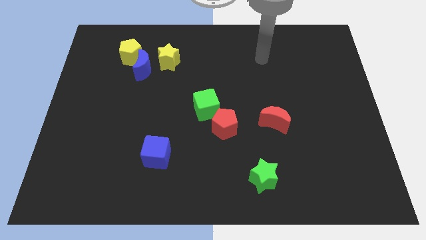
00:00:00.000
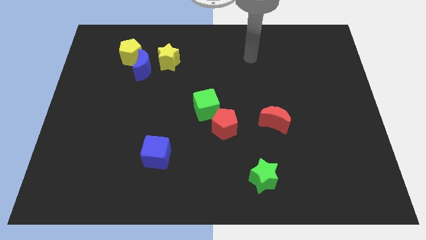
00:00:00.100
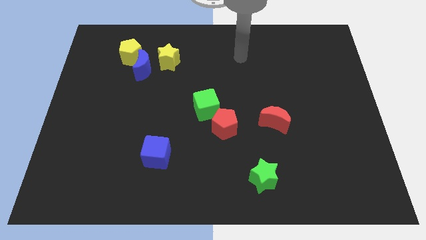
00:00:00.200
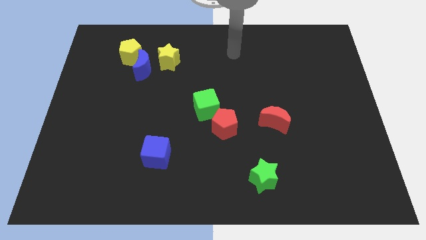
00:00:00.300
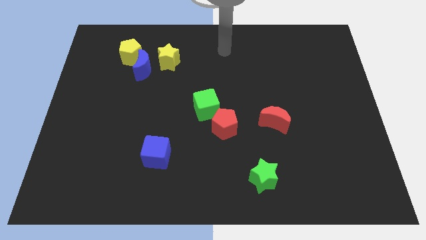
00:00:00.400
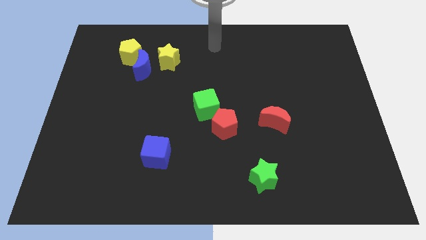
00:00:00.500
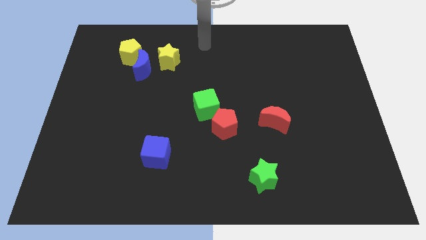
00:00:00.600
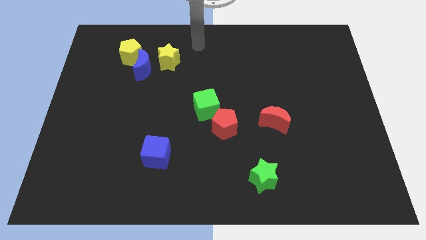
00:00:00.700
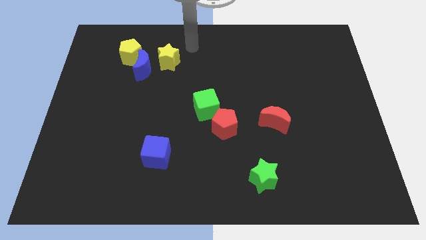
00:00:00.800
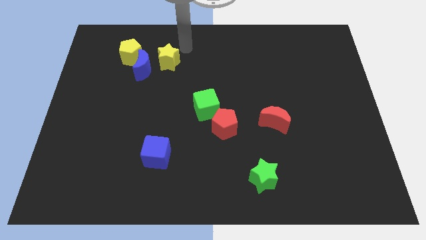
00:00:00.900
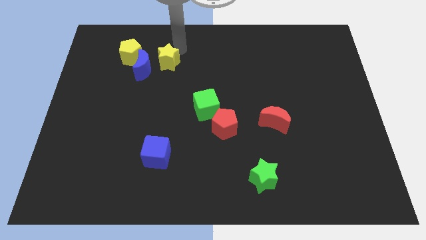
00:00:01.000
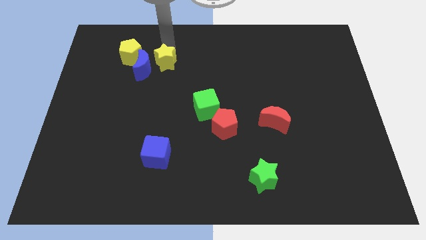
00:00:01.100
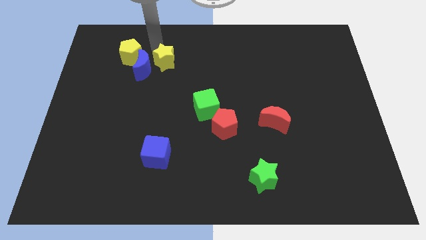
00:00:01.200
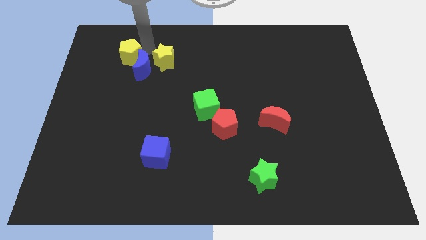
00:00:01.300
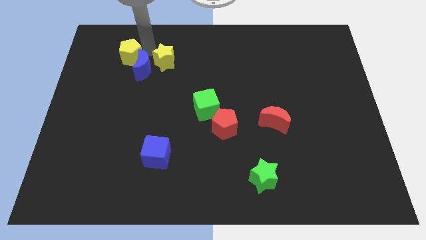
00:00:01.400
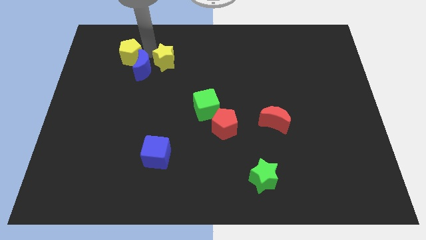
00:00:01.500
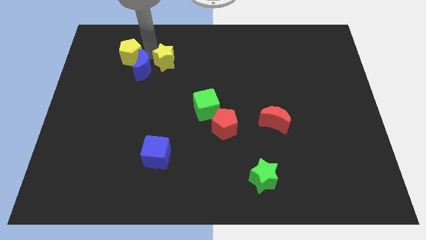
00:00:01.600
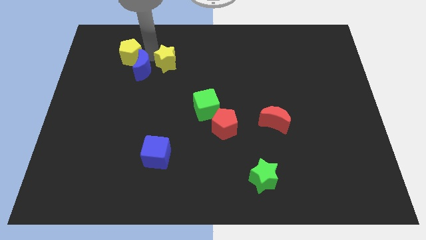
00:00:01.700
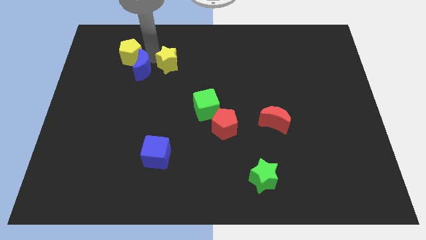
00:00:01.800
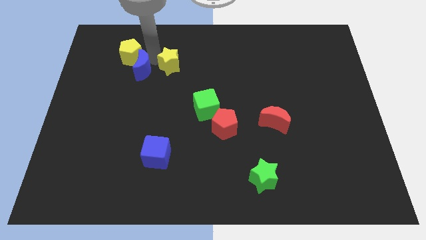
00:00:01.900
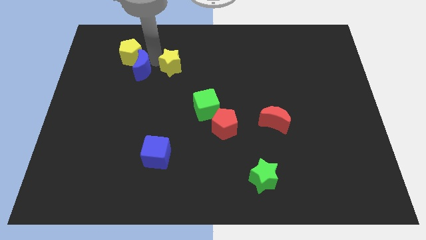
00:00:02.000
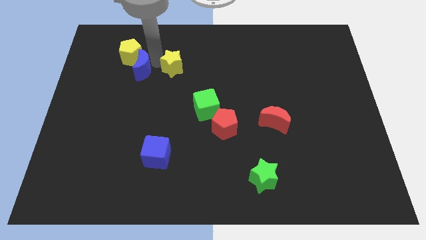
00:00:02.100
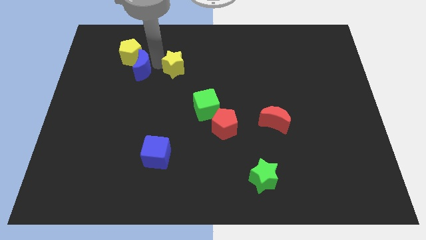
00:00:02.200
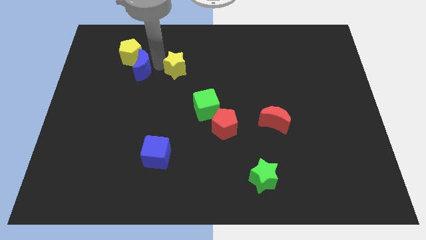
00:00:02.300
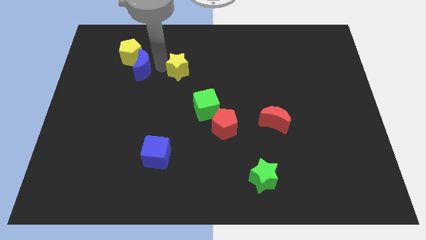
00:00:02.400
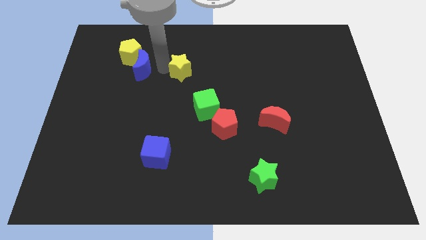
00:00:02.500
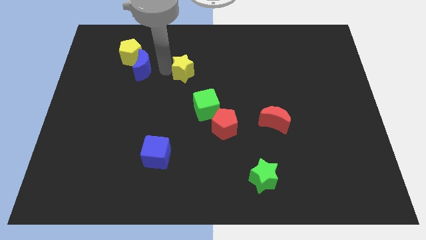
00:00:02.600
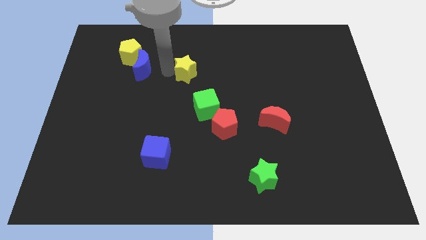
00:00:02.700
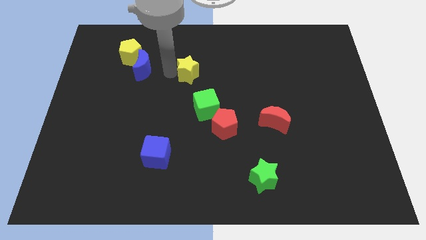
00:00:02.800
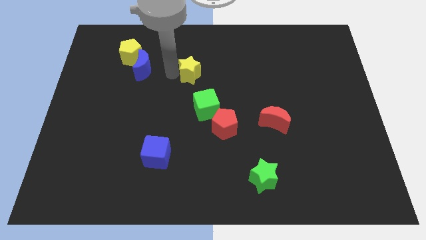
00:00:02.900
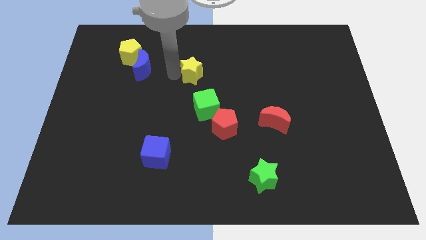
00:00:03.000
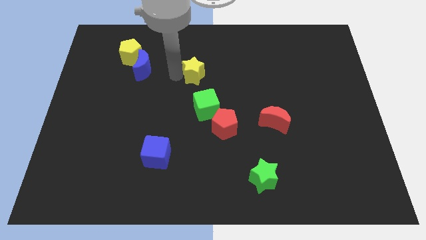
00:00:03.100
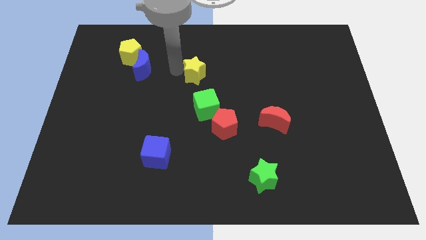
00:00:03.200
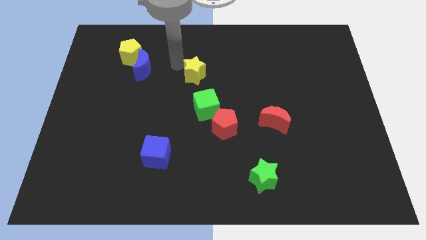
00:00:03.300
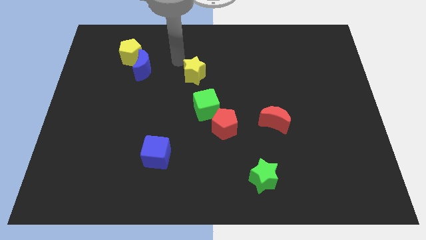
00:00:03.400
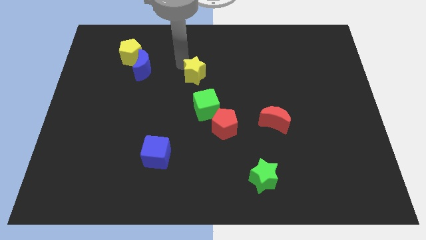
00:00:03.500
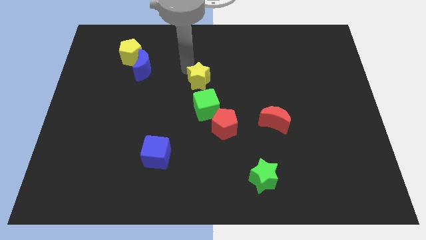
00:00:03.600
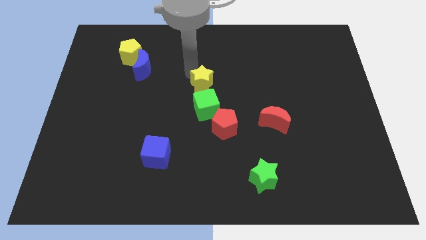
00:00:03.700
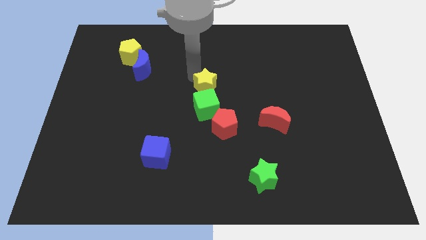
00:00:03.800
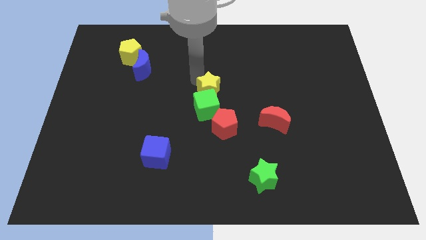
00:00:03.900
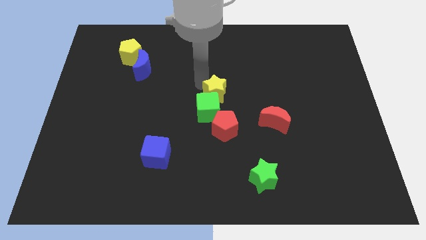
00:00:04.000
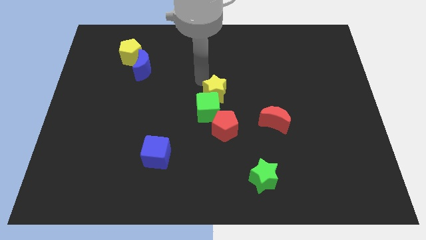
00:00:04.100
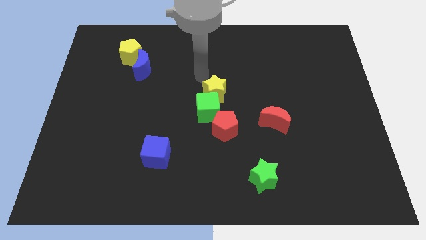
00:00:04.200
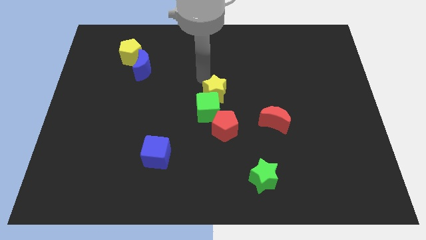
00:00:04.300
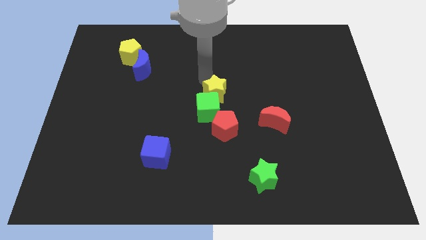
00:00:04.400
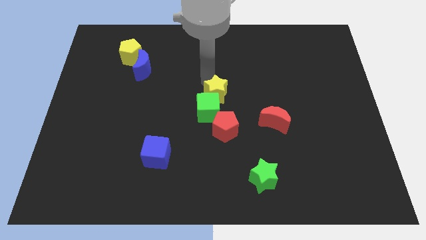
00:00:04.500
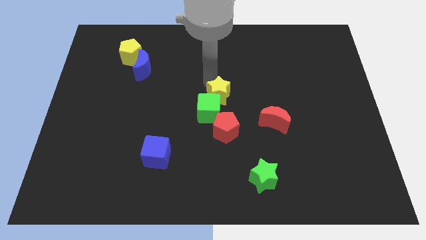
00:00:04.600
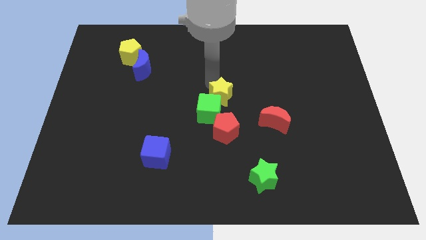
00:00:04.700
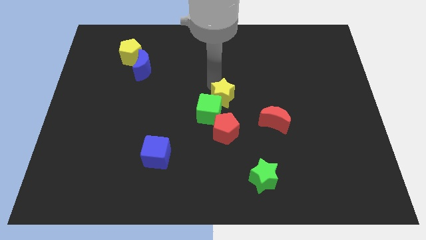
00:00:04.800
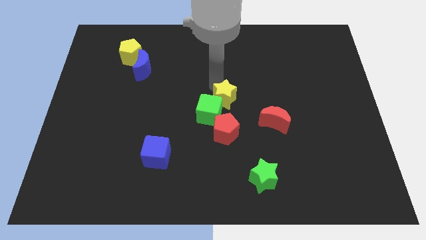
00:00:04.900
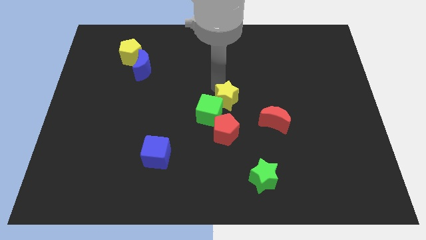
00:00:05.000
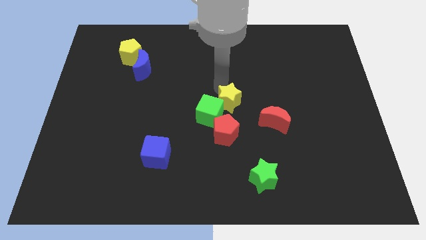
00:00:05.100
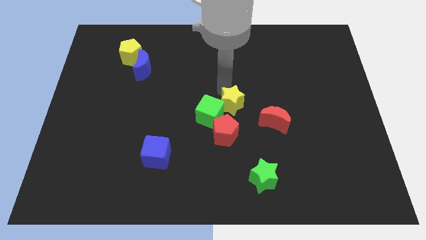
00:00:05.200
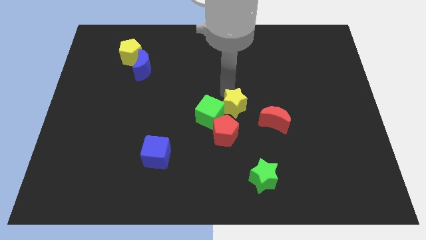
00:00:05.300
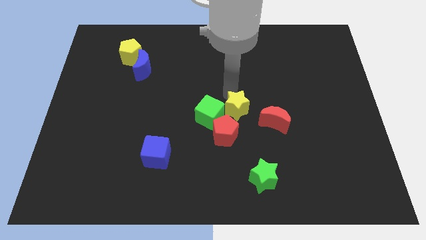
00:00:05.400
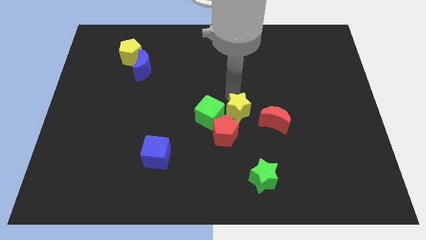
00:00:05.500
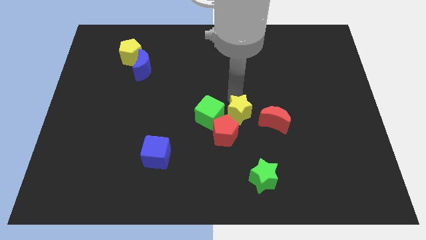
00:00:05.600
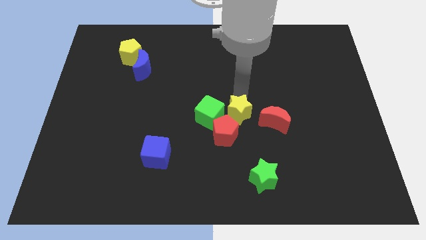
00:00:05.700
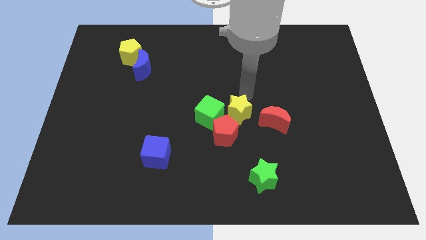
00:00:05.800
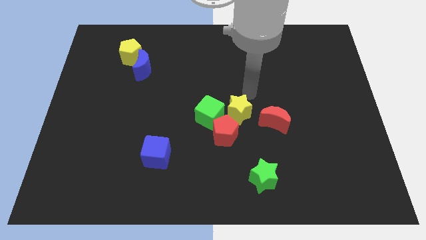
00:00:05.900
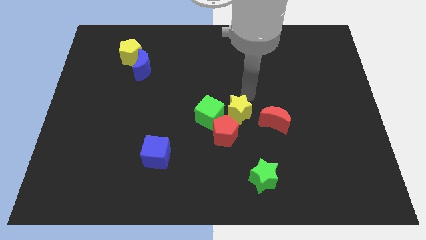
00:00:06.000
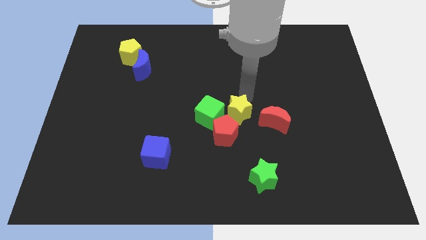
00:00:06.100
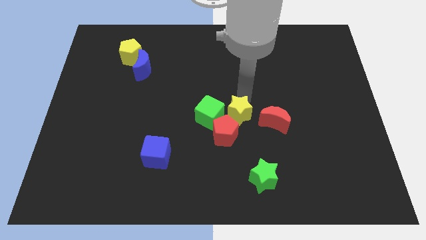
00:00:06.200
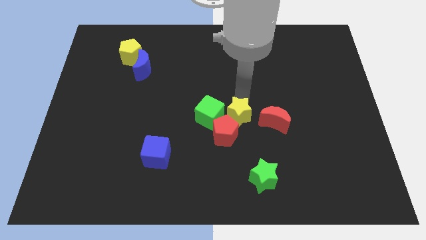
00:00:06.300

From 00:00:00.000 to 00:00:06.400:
put the yellow star towards the red pentagon

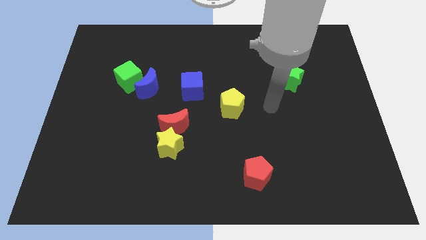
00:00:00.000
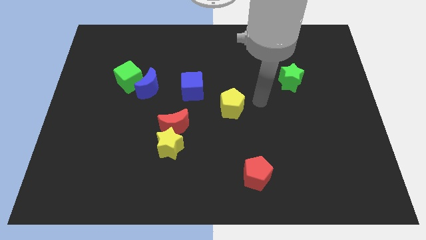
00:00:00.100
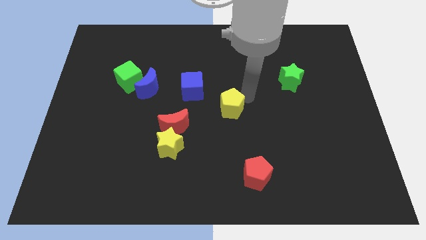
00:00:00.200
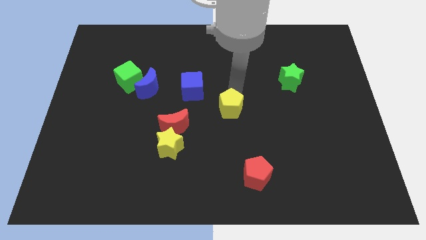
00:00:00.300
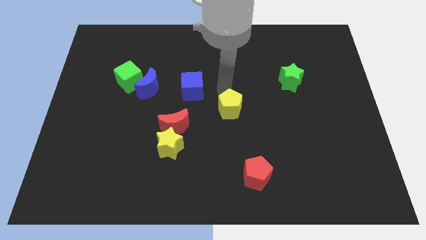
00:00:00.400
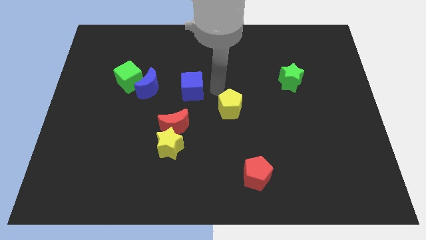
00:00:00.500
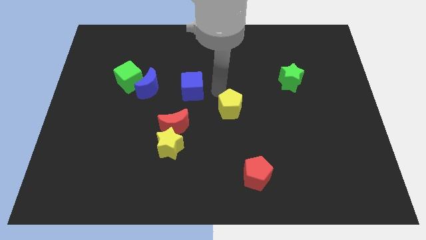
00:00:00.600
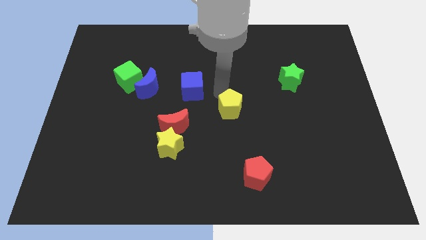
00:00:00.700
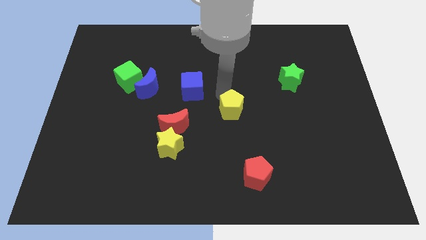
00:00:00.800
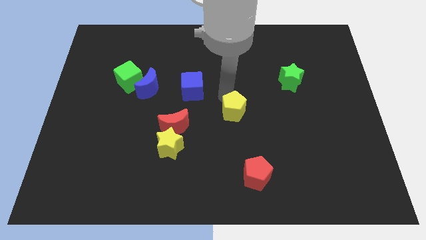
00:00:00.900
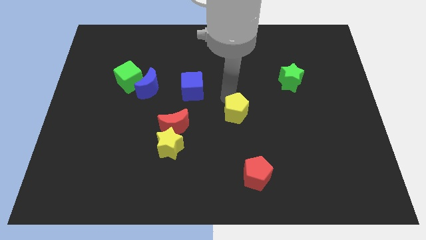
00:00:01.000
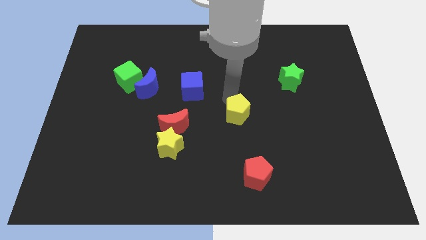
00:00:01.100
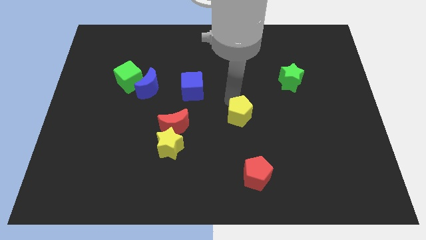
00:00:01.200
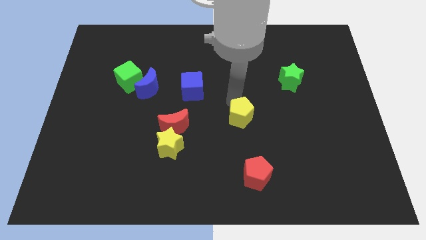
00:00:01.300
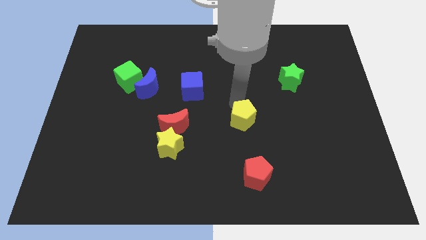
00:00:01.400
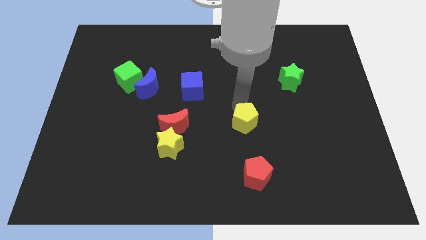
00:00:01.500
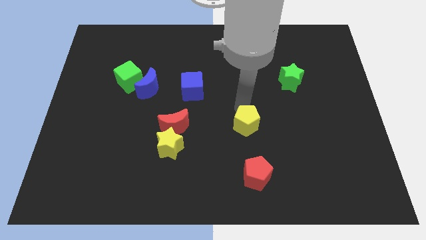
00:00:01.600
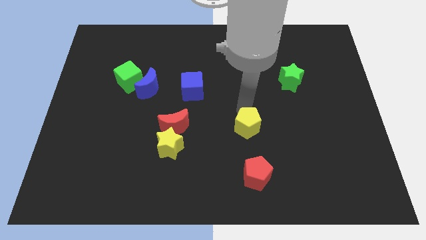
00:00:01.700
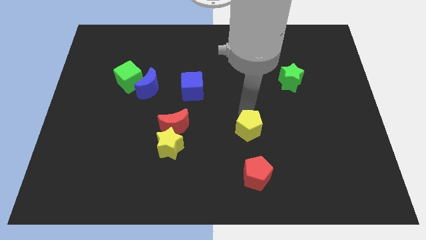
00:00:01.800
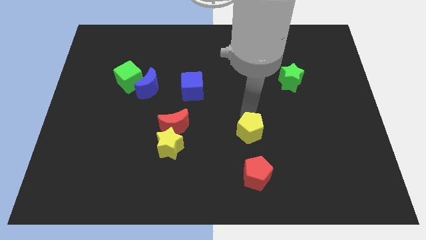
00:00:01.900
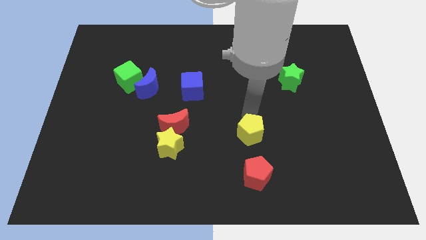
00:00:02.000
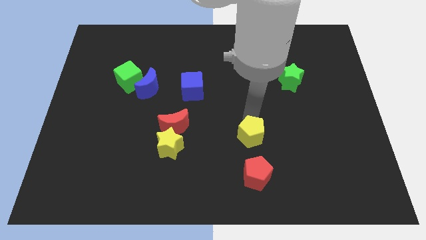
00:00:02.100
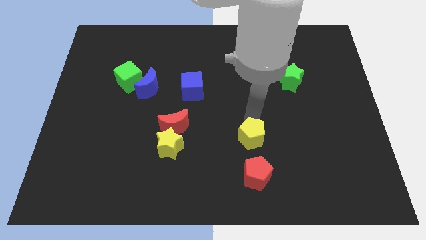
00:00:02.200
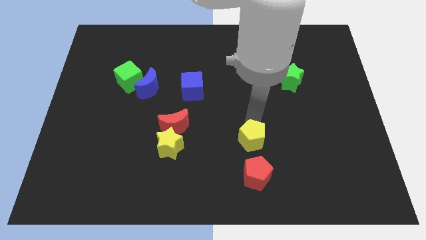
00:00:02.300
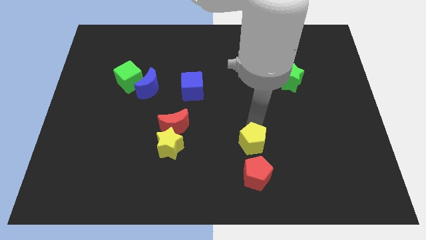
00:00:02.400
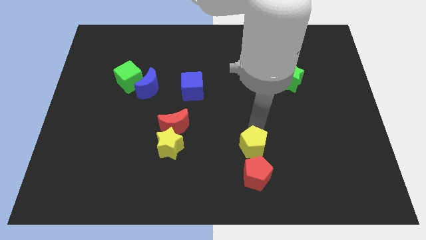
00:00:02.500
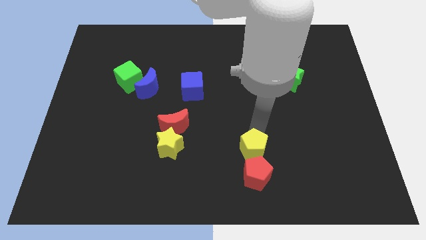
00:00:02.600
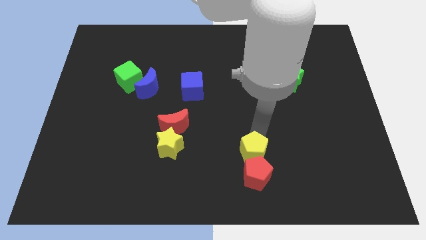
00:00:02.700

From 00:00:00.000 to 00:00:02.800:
move the yellow pentagon to the red pentagon
